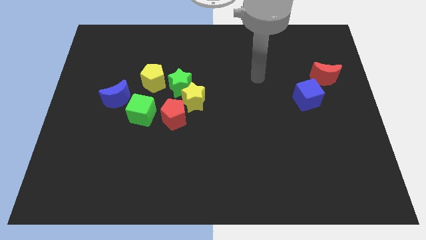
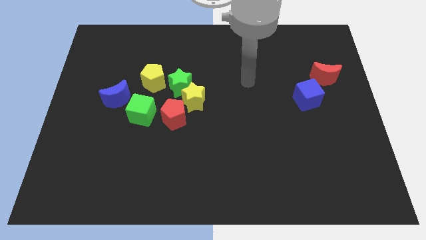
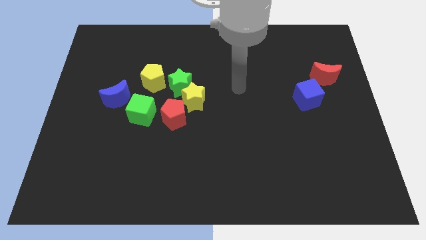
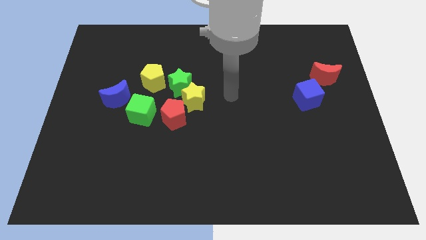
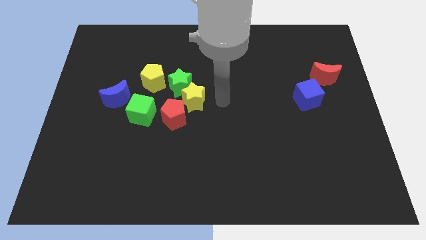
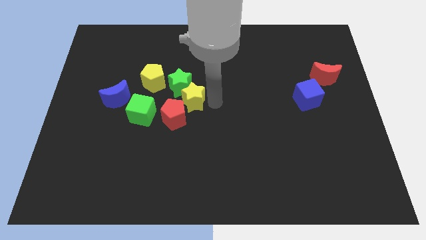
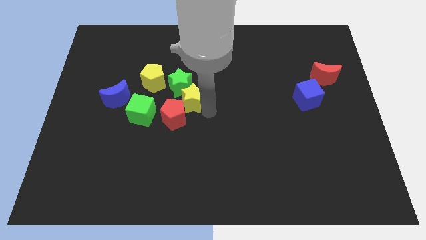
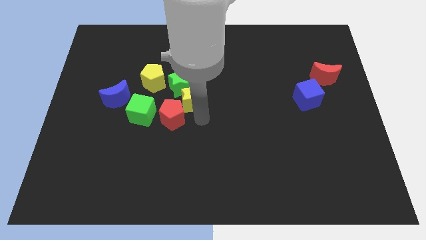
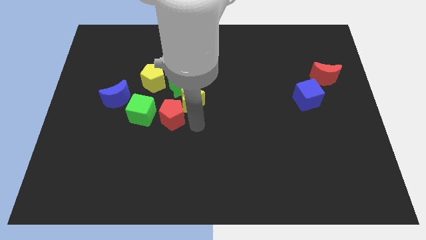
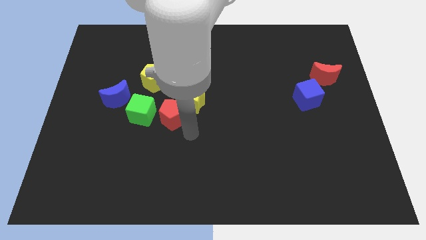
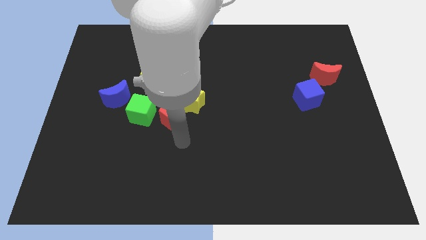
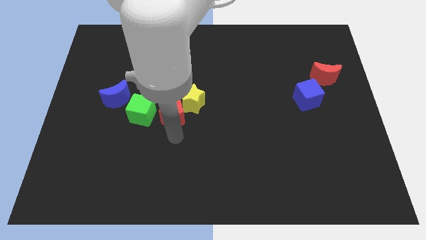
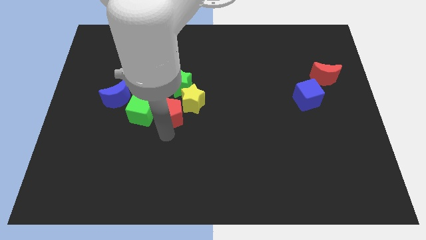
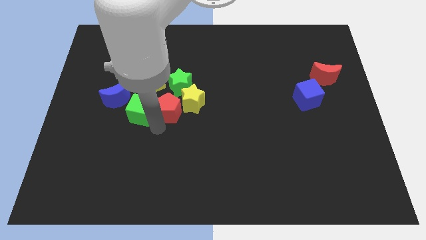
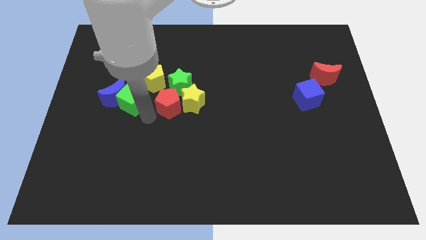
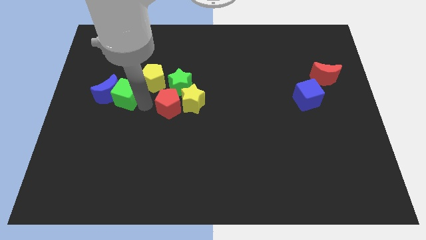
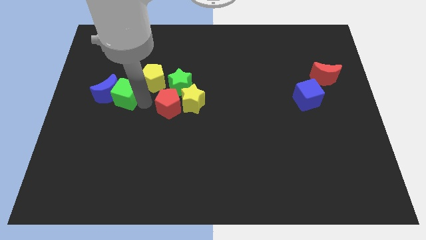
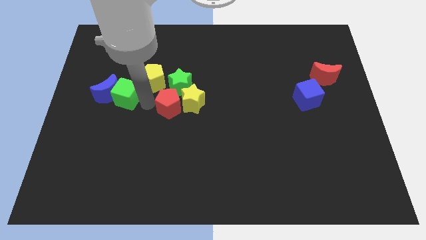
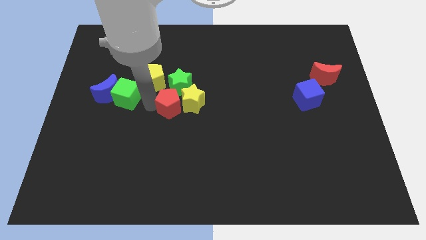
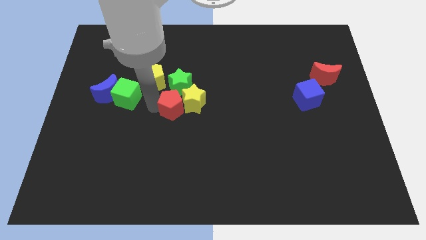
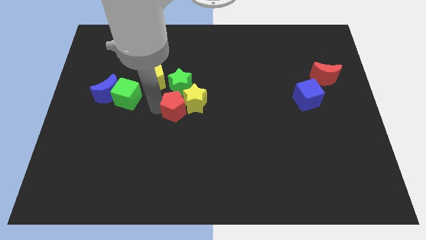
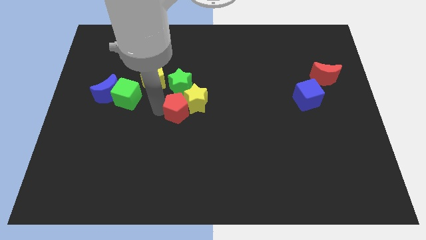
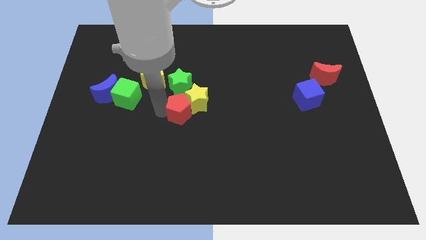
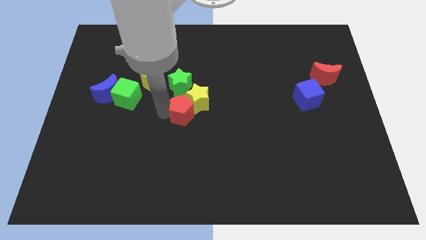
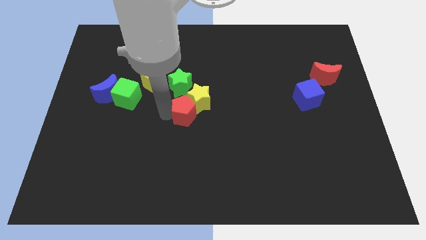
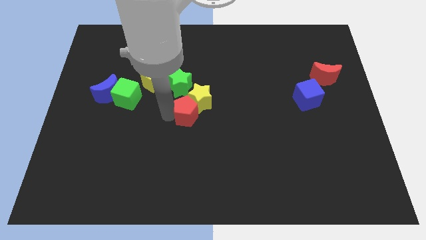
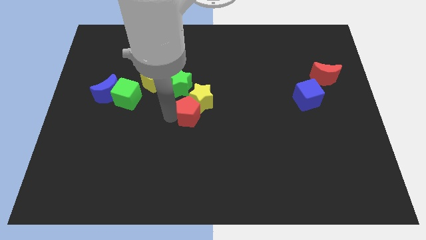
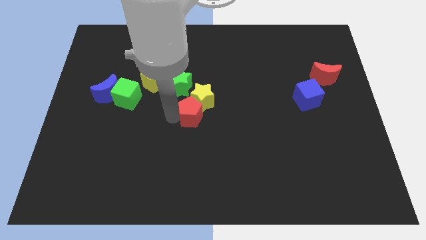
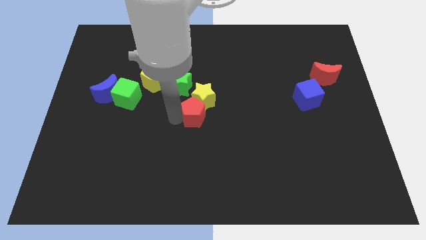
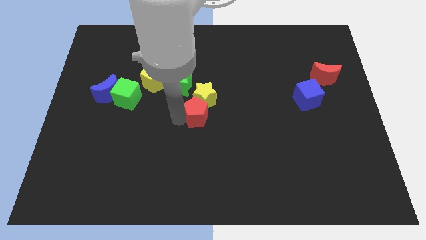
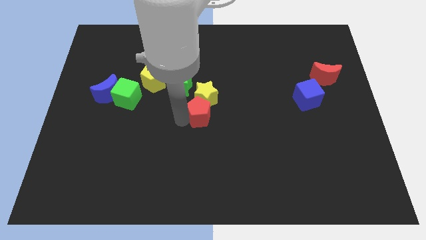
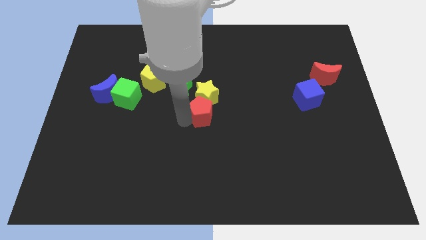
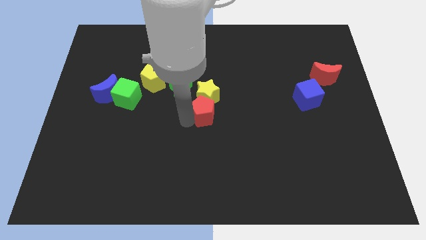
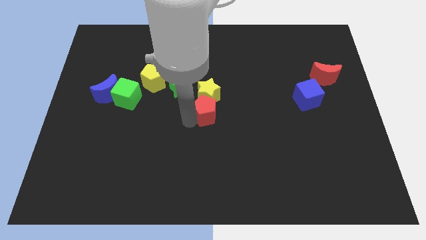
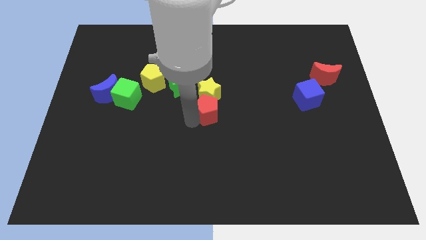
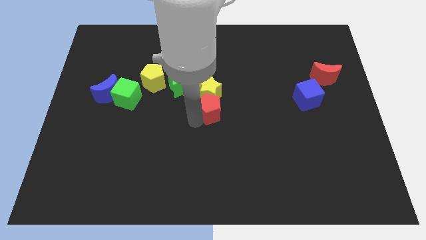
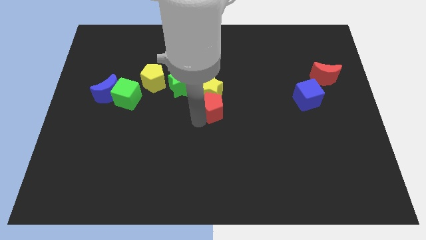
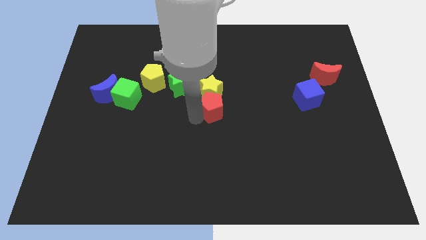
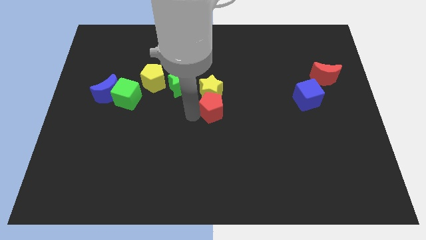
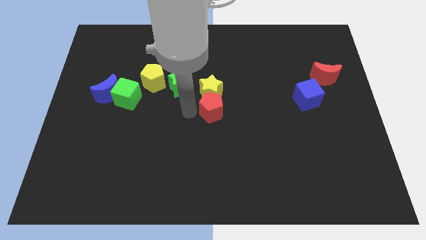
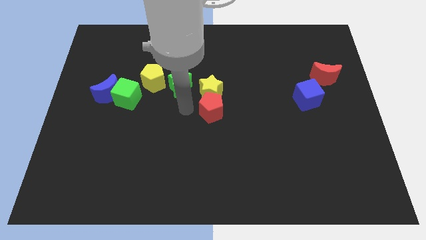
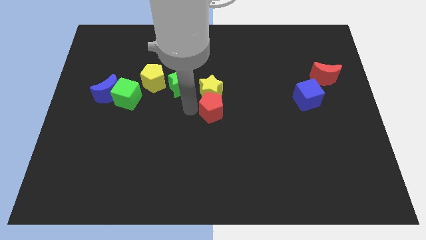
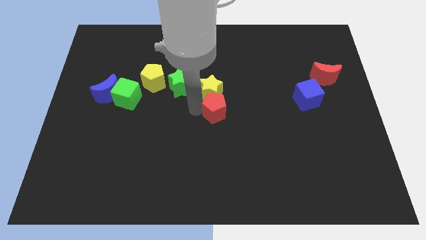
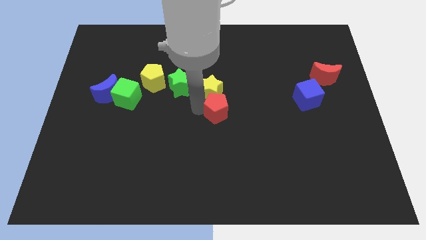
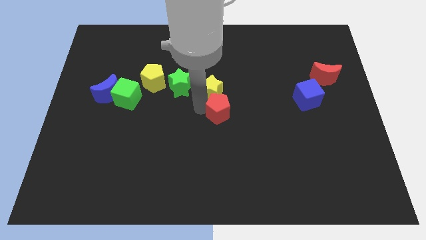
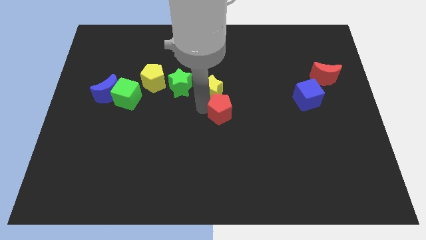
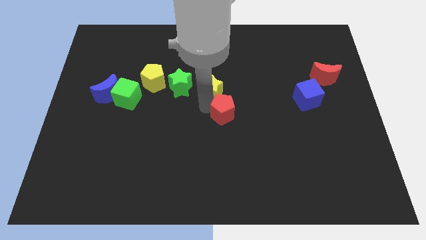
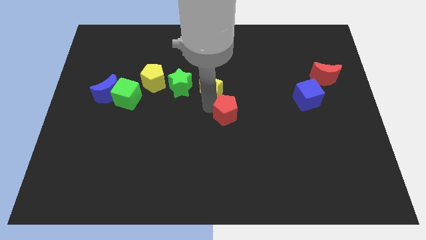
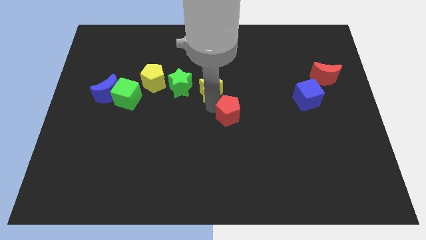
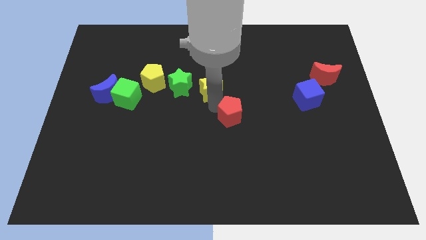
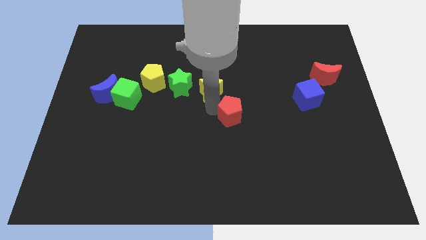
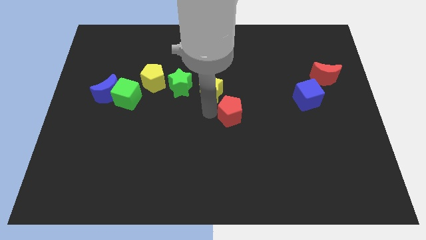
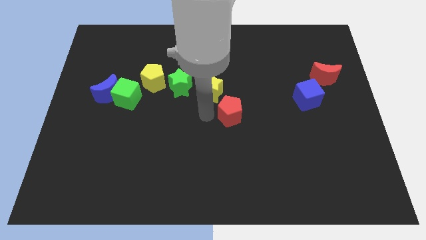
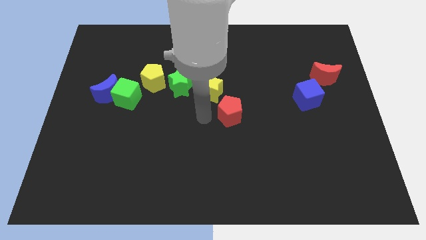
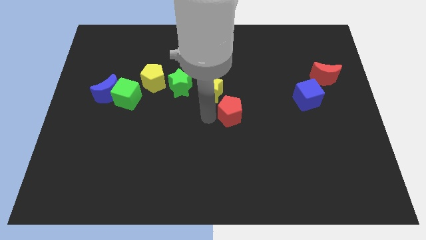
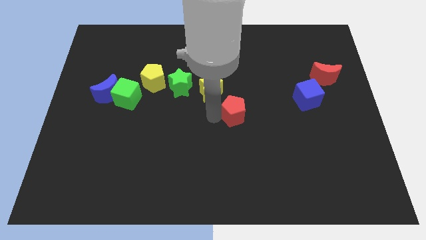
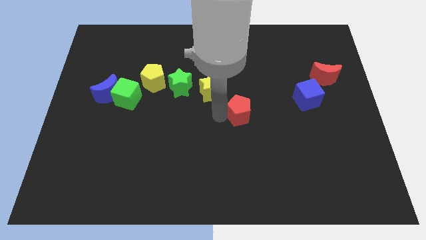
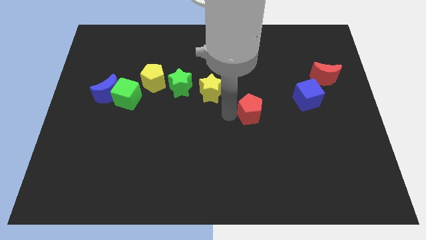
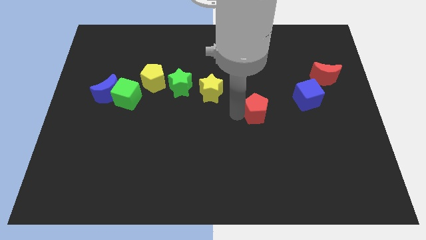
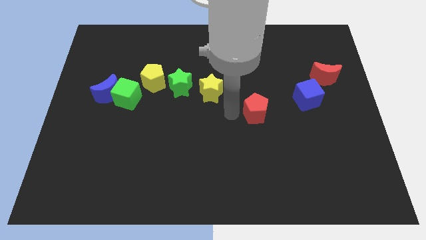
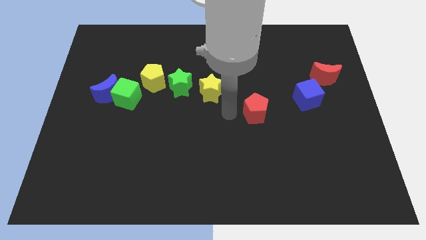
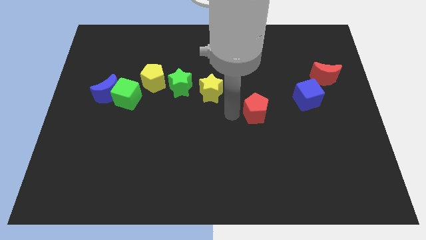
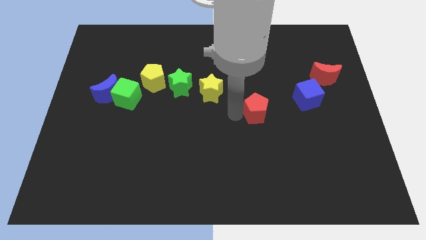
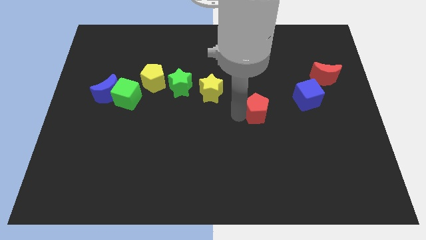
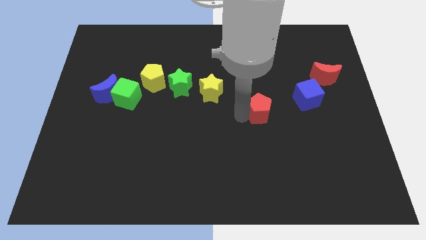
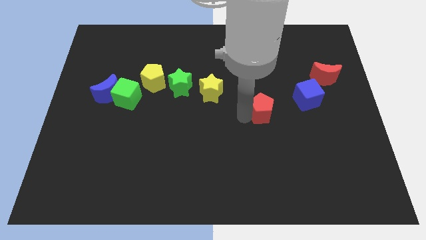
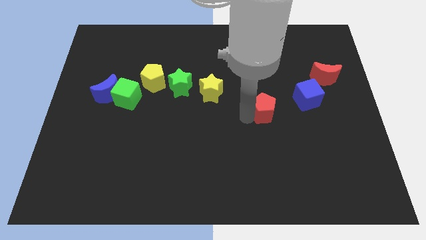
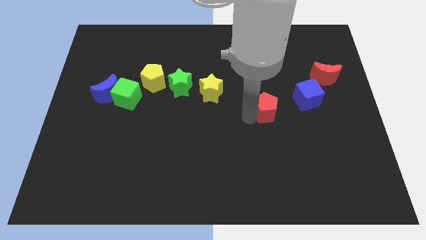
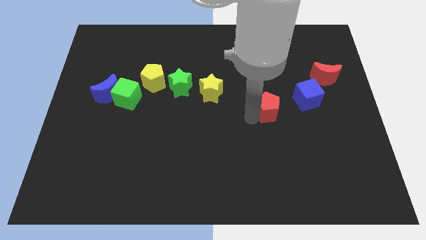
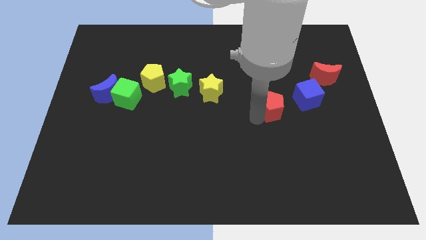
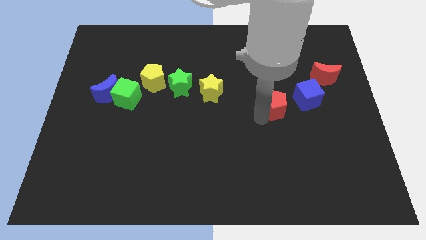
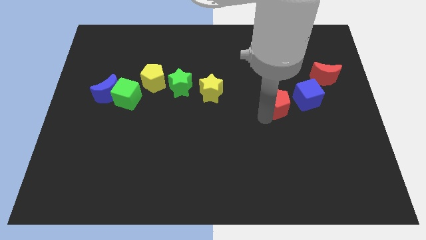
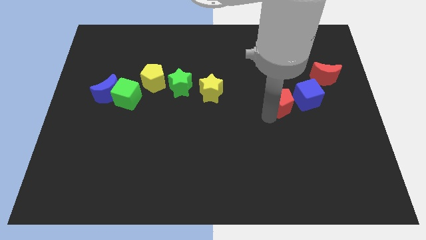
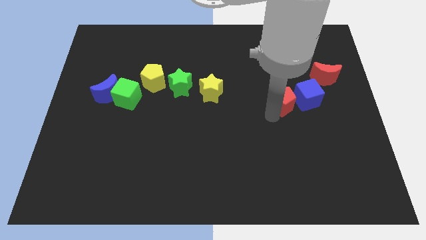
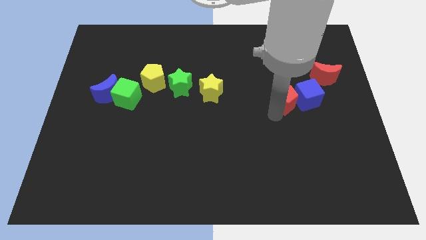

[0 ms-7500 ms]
move the red pentagon to the blue cube
